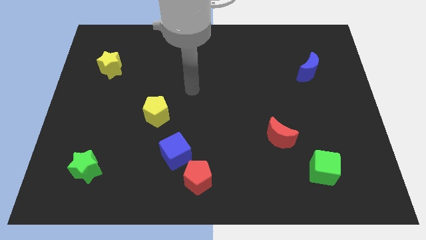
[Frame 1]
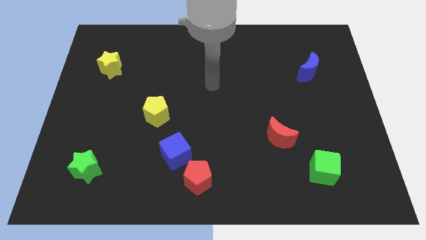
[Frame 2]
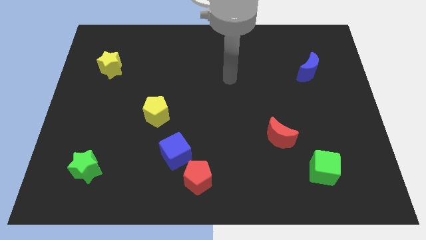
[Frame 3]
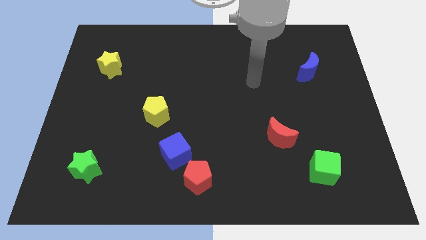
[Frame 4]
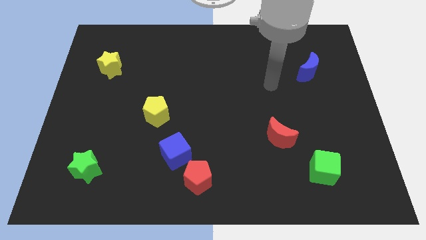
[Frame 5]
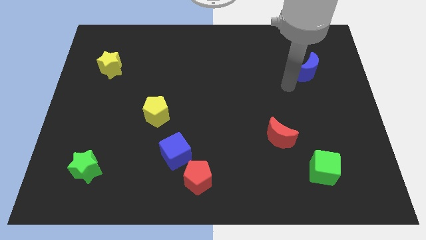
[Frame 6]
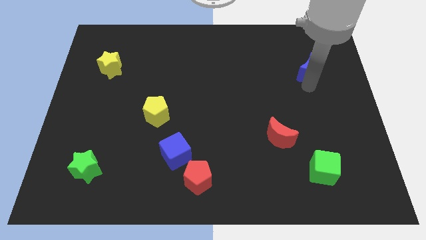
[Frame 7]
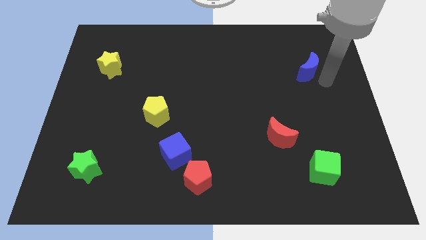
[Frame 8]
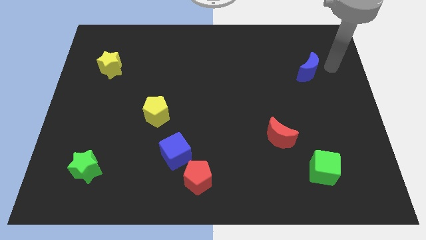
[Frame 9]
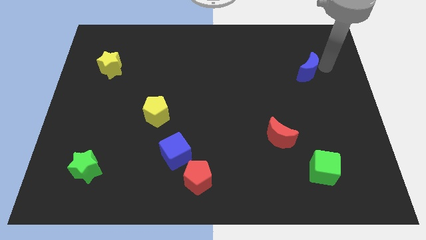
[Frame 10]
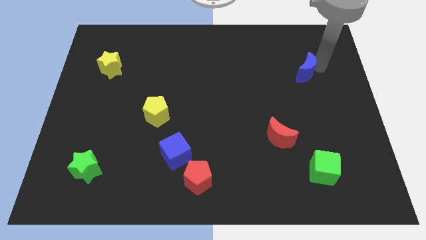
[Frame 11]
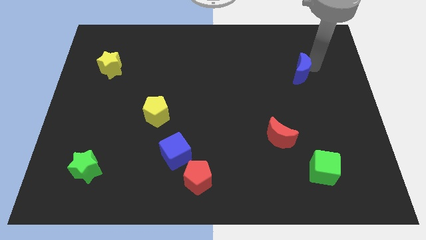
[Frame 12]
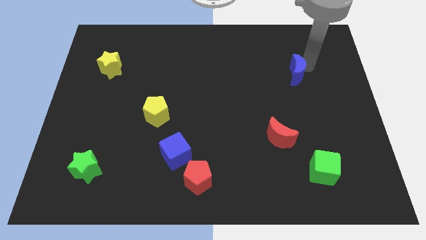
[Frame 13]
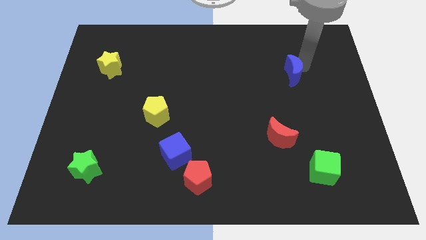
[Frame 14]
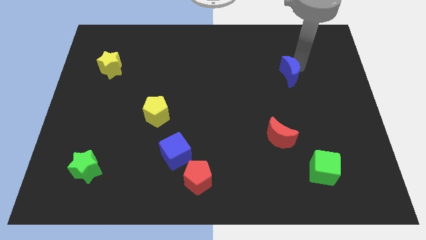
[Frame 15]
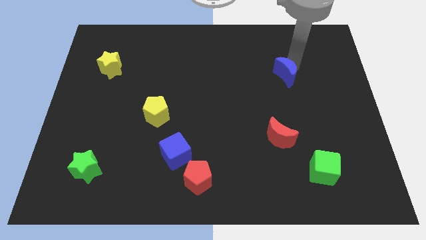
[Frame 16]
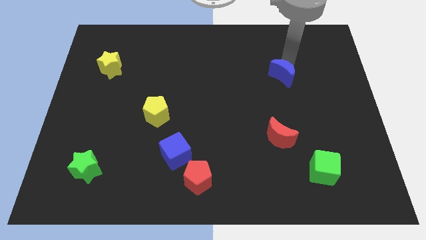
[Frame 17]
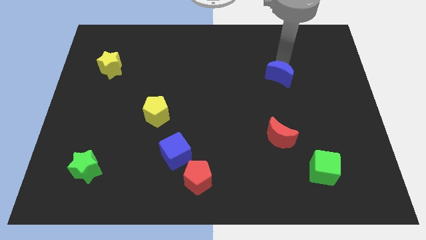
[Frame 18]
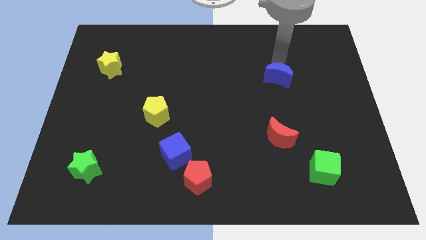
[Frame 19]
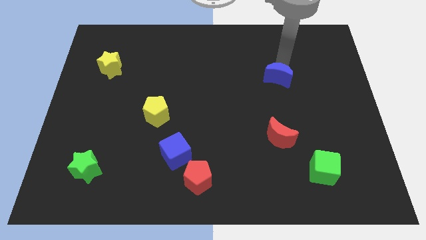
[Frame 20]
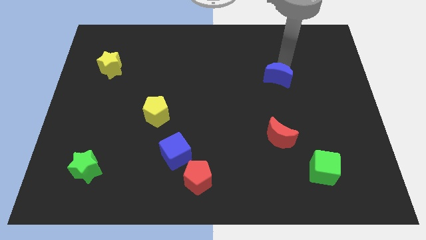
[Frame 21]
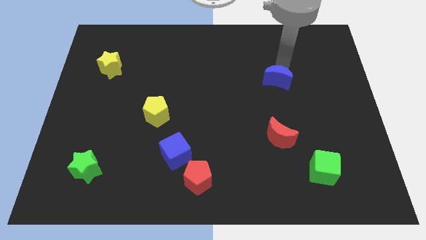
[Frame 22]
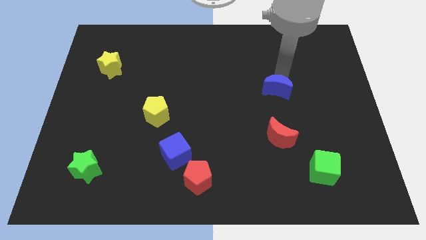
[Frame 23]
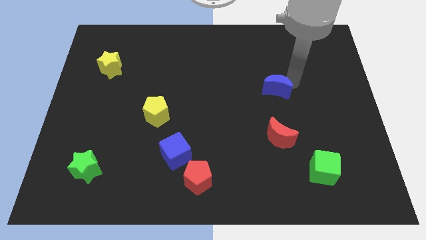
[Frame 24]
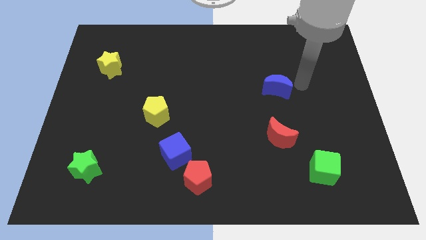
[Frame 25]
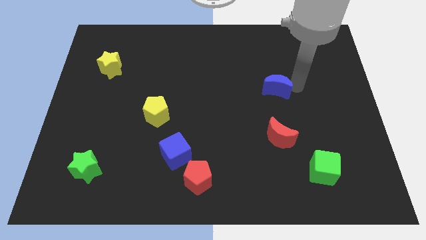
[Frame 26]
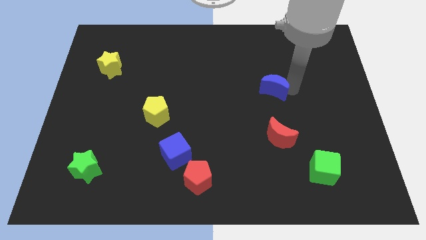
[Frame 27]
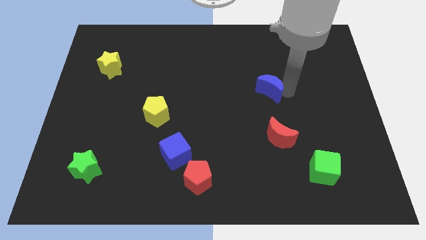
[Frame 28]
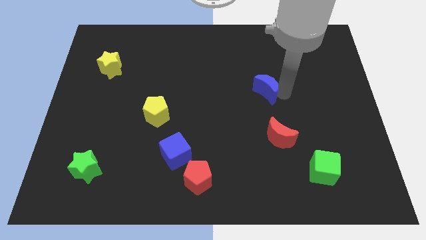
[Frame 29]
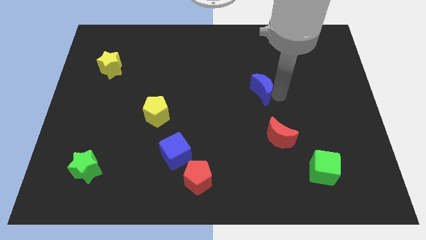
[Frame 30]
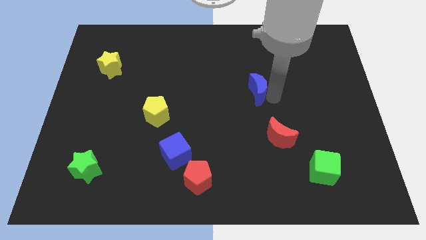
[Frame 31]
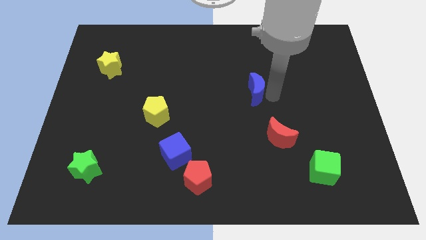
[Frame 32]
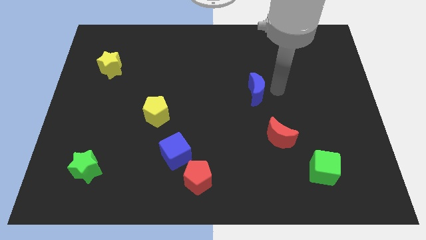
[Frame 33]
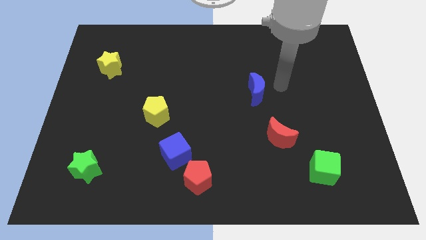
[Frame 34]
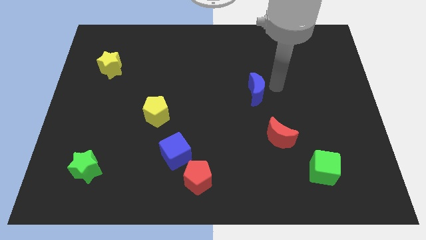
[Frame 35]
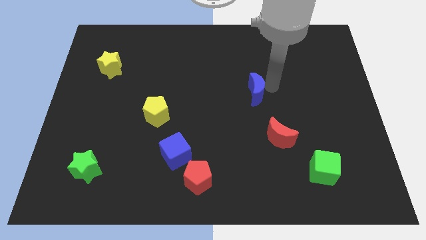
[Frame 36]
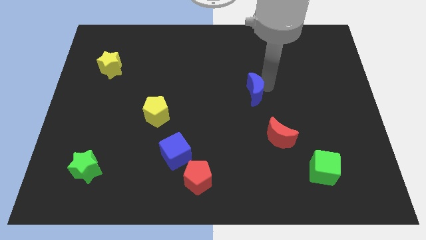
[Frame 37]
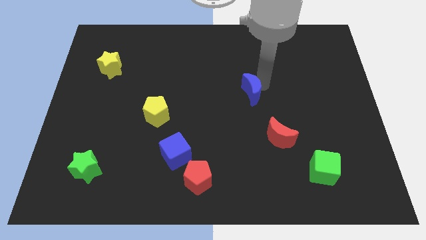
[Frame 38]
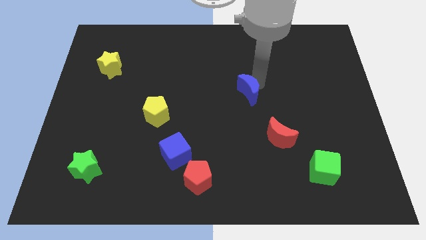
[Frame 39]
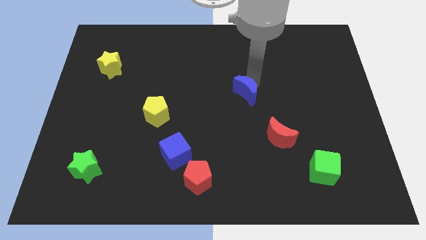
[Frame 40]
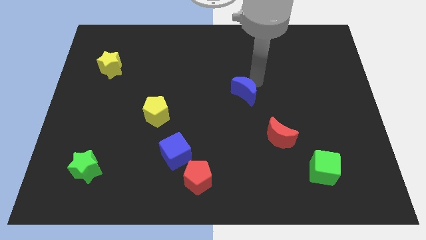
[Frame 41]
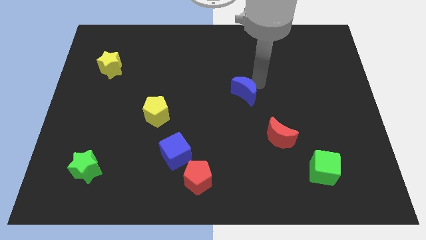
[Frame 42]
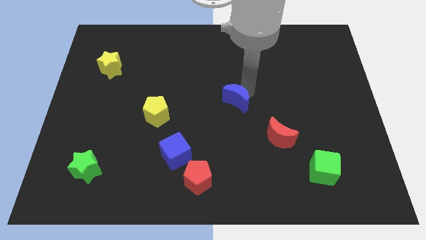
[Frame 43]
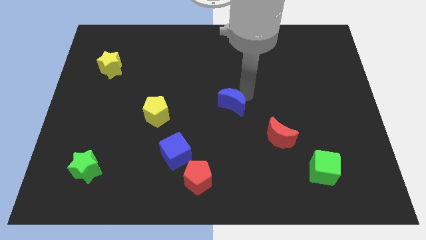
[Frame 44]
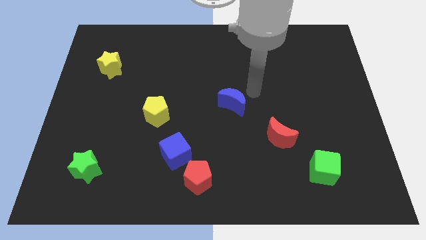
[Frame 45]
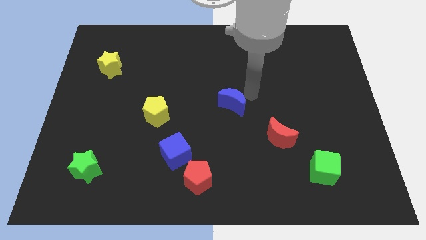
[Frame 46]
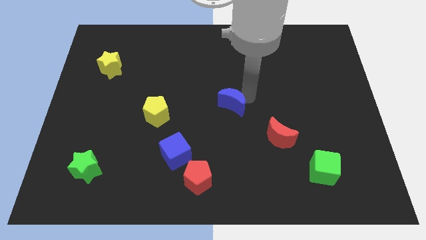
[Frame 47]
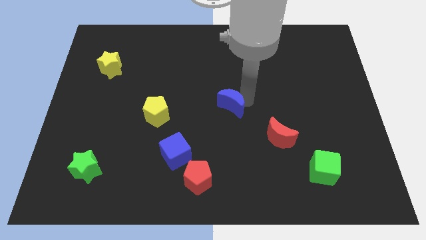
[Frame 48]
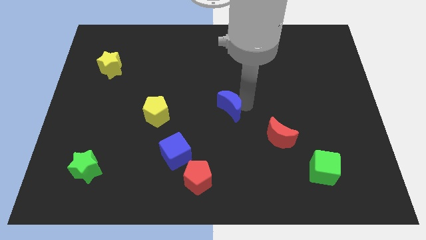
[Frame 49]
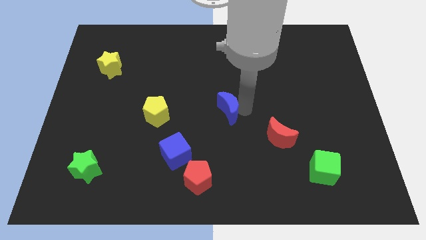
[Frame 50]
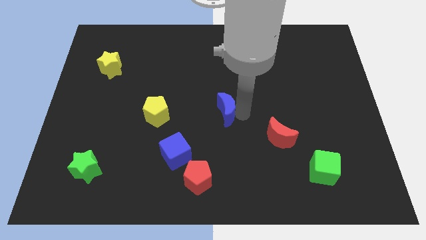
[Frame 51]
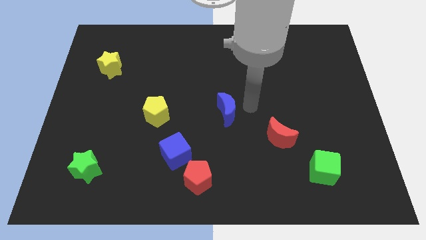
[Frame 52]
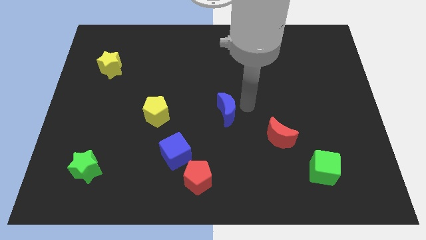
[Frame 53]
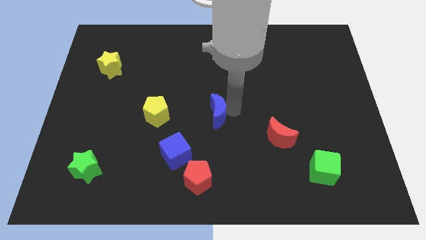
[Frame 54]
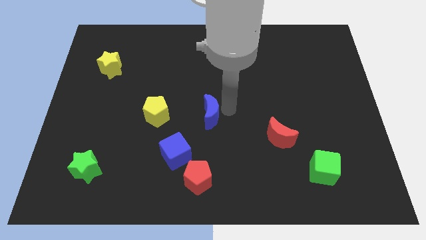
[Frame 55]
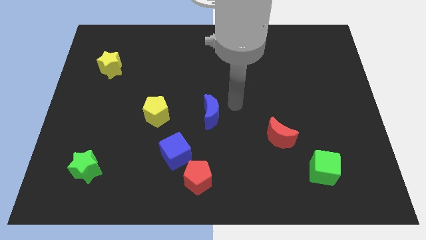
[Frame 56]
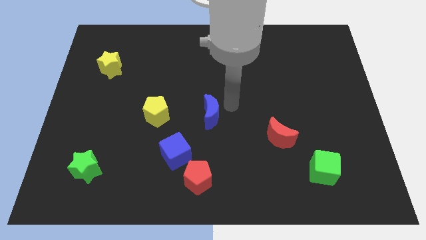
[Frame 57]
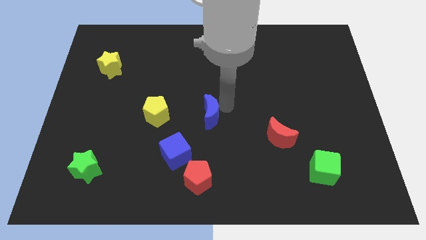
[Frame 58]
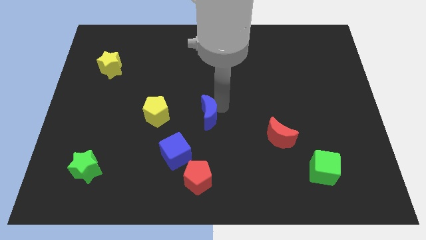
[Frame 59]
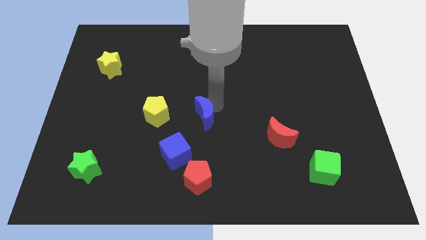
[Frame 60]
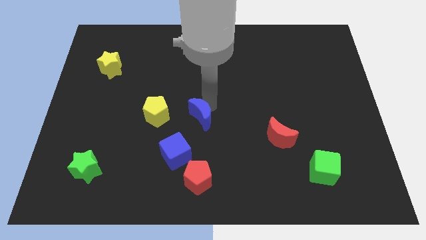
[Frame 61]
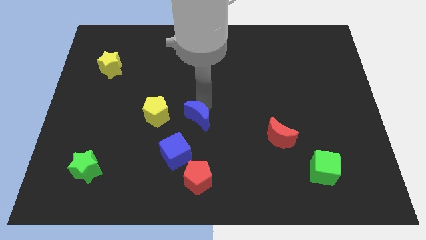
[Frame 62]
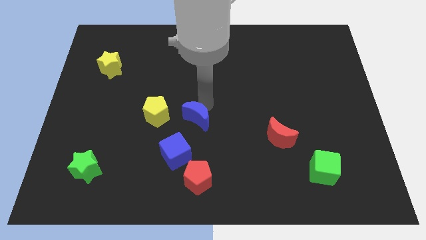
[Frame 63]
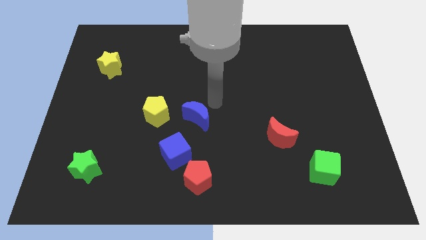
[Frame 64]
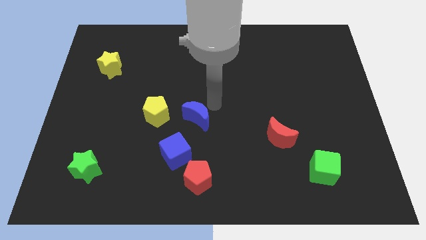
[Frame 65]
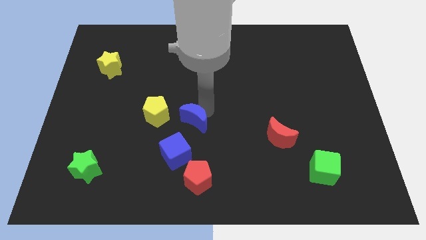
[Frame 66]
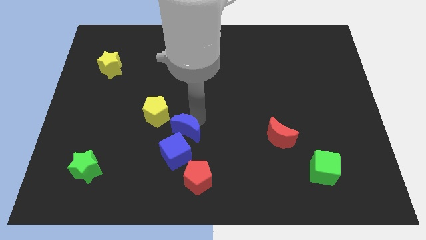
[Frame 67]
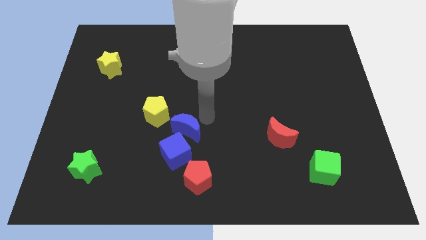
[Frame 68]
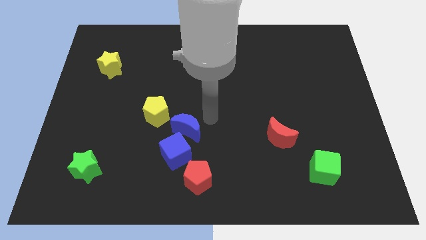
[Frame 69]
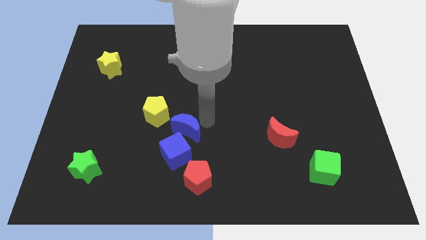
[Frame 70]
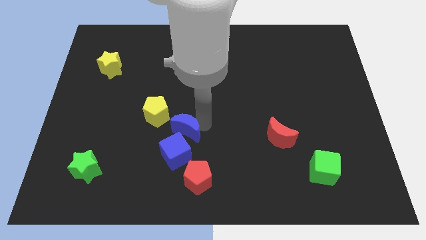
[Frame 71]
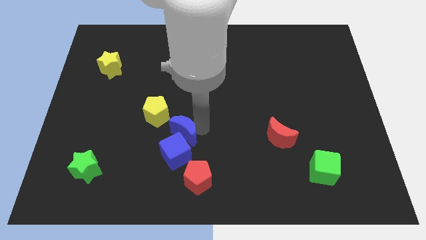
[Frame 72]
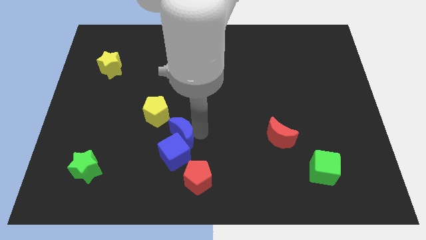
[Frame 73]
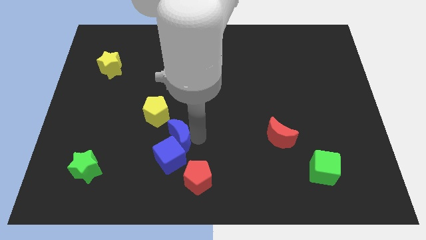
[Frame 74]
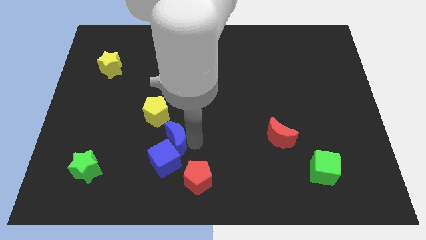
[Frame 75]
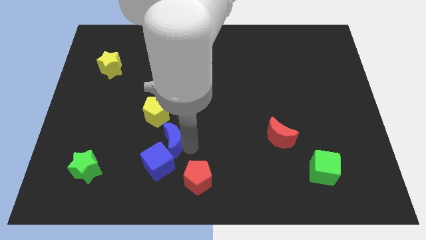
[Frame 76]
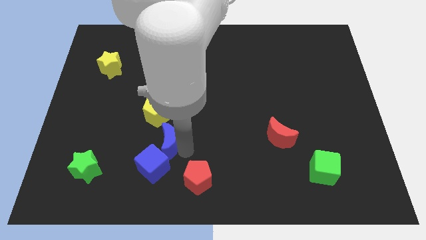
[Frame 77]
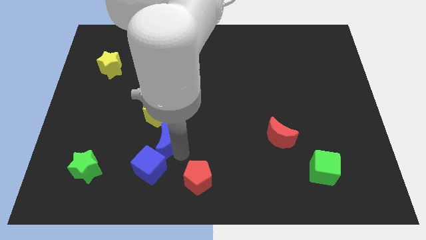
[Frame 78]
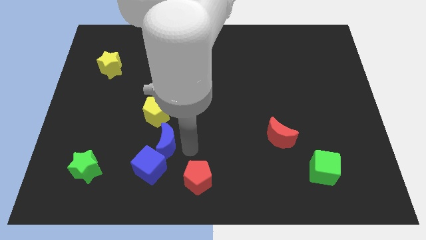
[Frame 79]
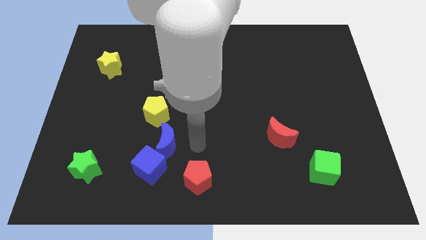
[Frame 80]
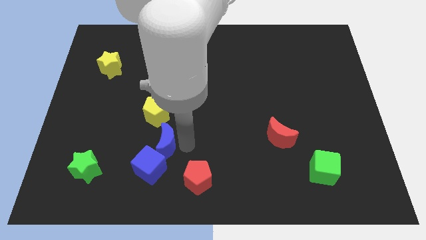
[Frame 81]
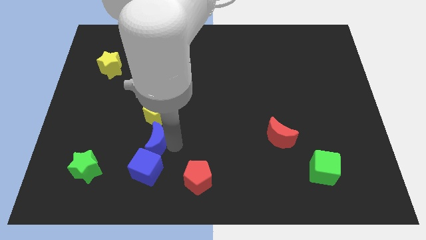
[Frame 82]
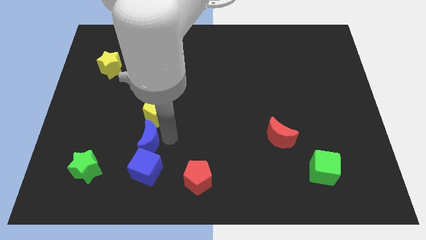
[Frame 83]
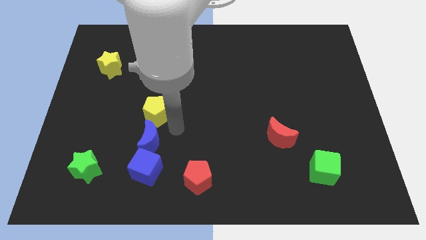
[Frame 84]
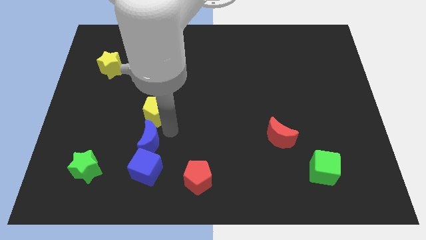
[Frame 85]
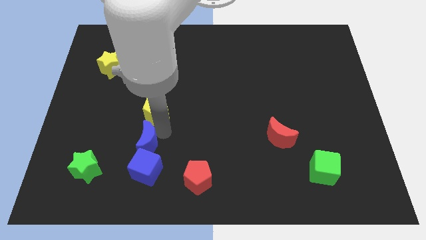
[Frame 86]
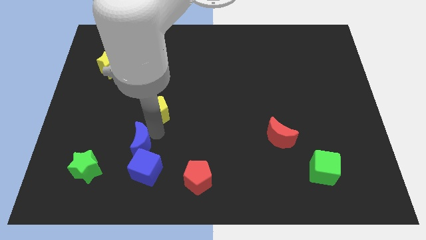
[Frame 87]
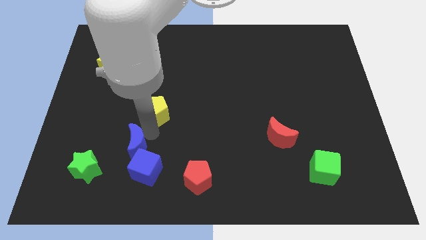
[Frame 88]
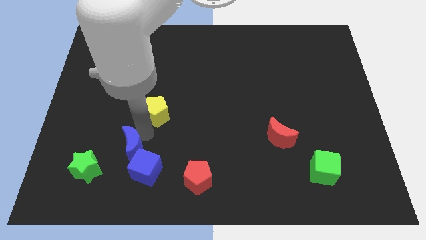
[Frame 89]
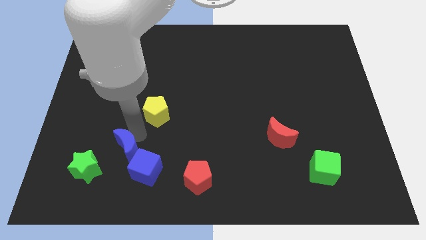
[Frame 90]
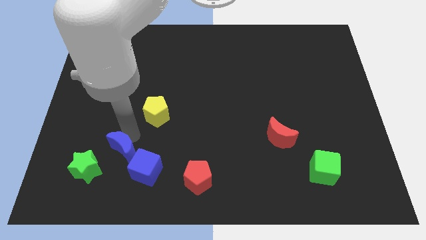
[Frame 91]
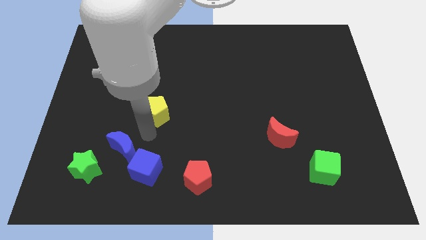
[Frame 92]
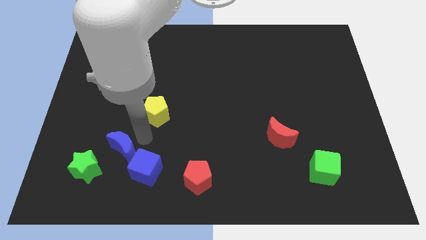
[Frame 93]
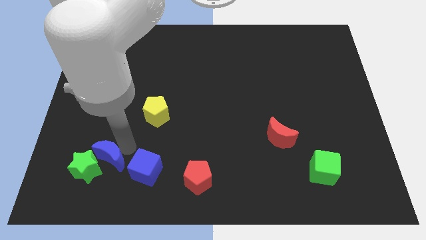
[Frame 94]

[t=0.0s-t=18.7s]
put the blue moon towards the green star
